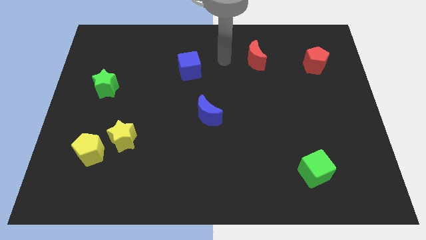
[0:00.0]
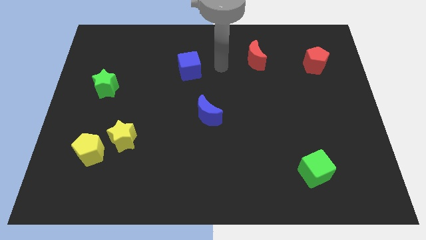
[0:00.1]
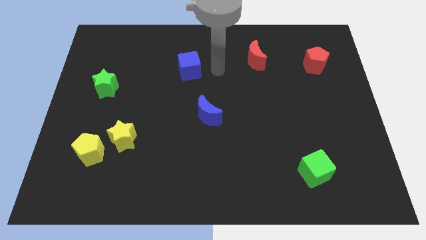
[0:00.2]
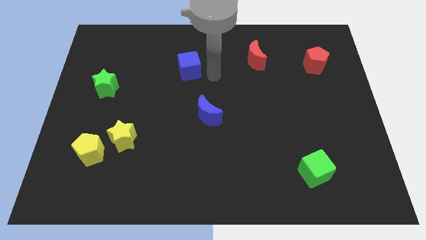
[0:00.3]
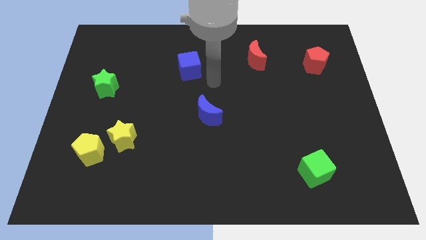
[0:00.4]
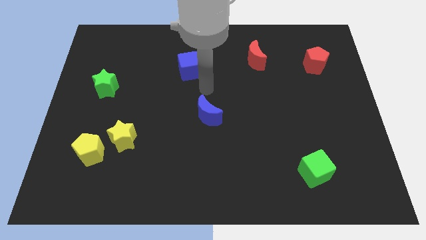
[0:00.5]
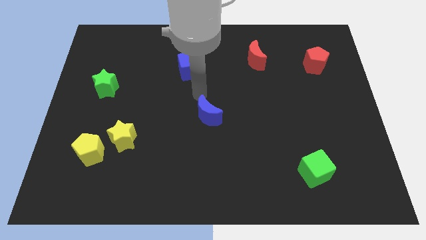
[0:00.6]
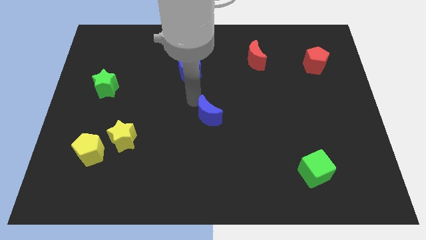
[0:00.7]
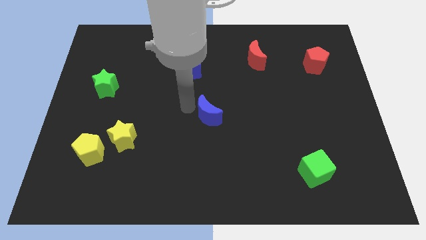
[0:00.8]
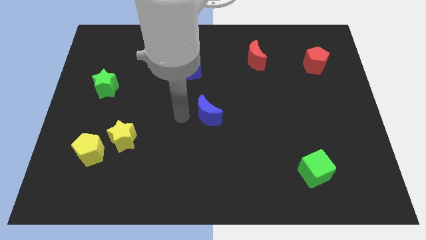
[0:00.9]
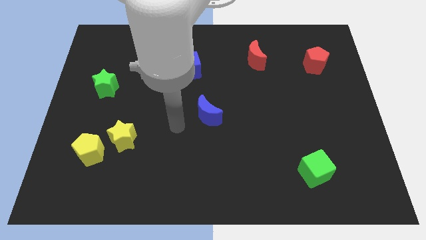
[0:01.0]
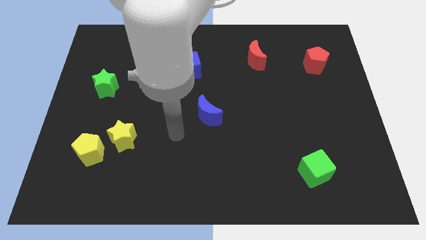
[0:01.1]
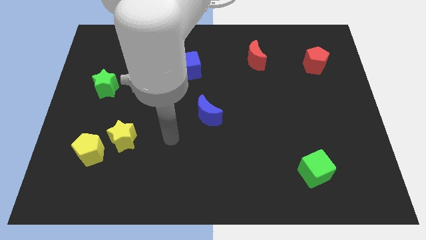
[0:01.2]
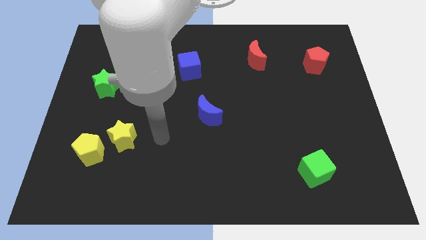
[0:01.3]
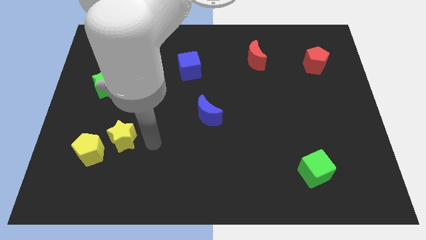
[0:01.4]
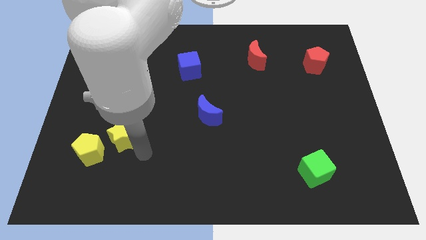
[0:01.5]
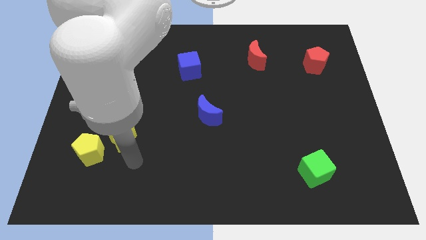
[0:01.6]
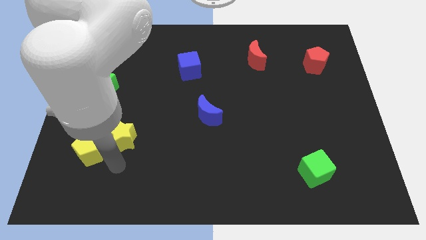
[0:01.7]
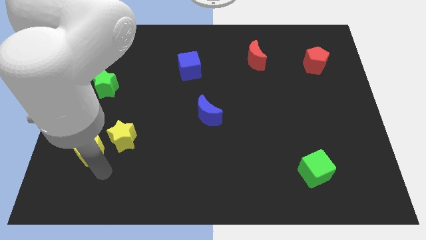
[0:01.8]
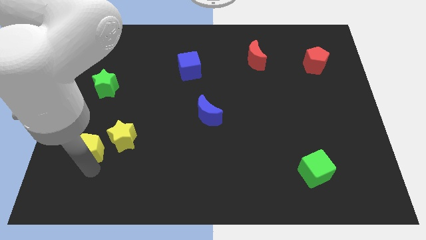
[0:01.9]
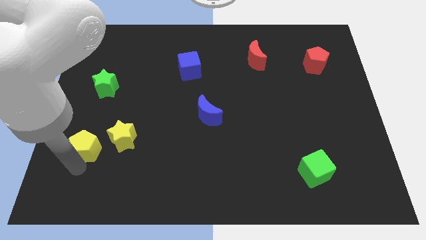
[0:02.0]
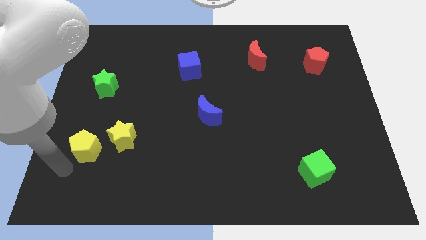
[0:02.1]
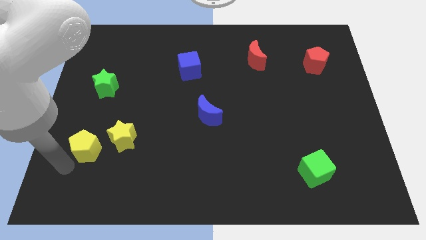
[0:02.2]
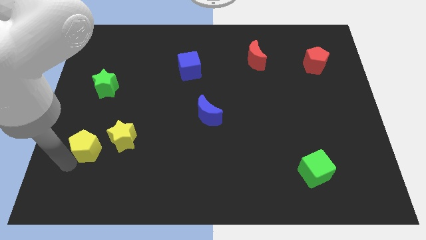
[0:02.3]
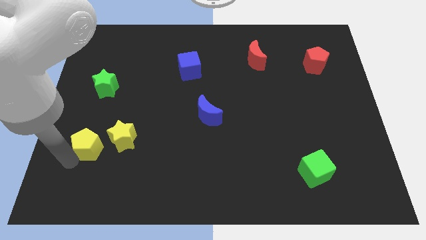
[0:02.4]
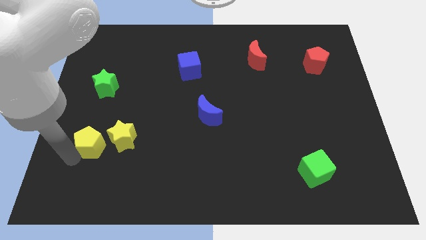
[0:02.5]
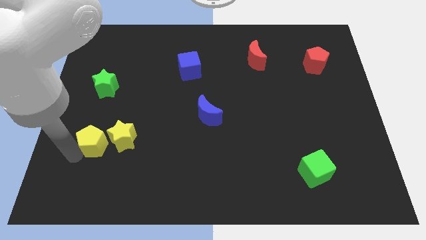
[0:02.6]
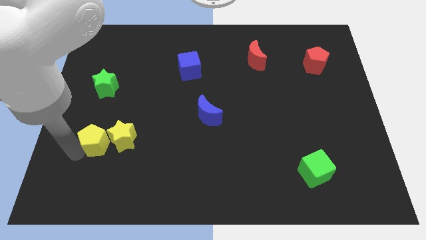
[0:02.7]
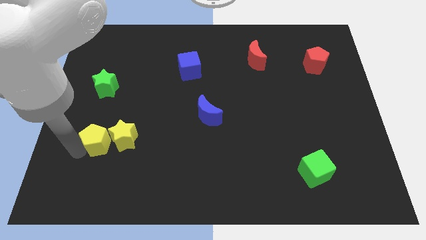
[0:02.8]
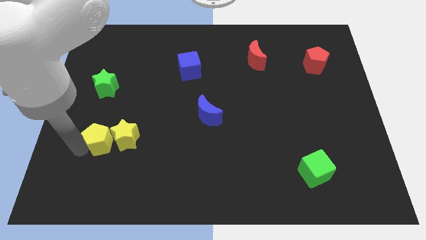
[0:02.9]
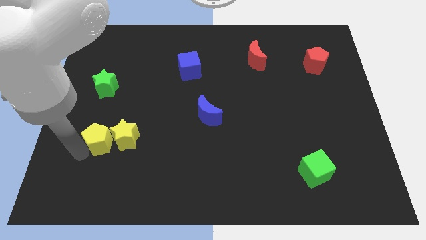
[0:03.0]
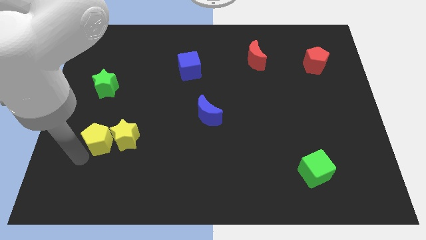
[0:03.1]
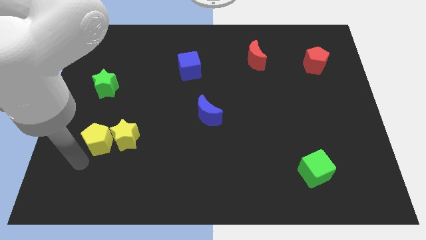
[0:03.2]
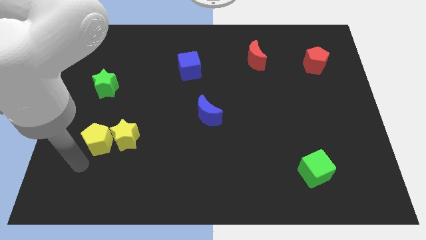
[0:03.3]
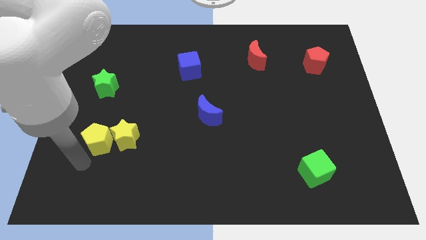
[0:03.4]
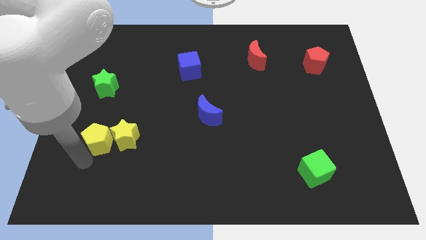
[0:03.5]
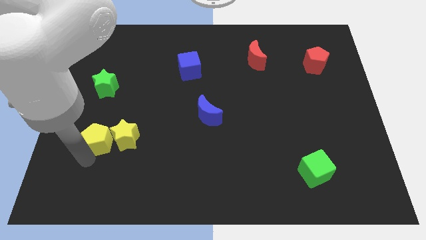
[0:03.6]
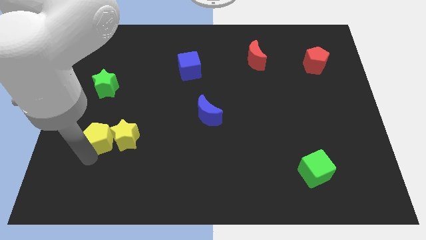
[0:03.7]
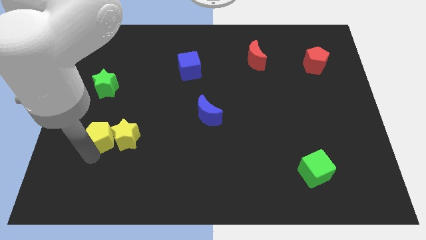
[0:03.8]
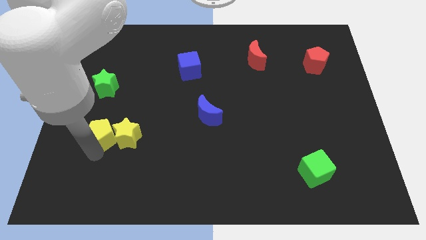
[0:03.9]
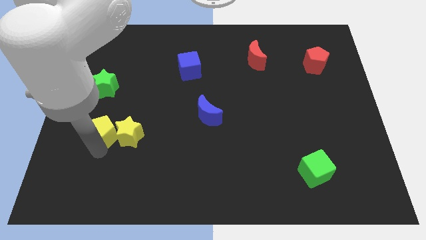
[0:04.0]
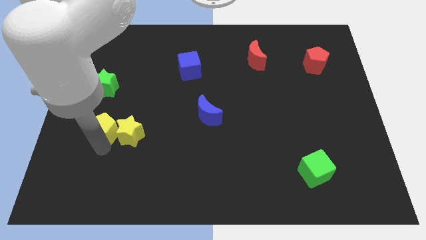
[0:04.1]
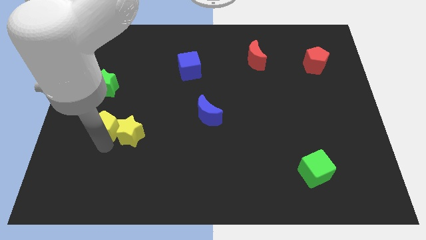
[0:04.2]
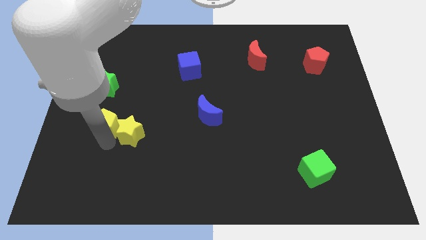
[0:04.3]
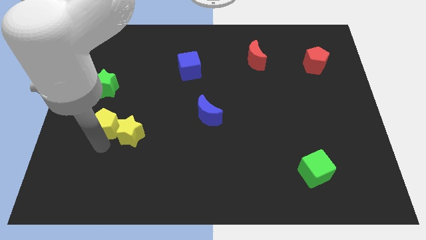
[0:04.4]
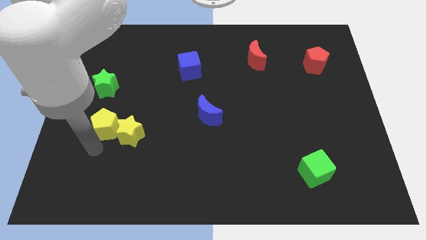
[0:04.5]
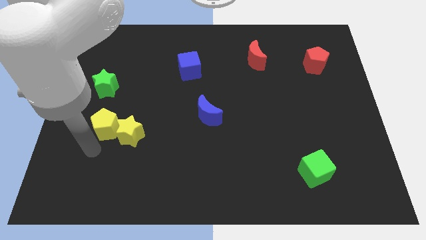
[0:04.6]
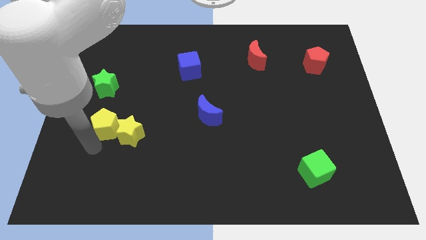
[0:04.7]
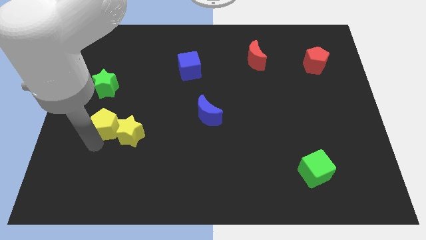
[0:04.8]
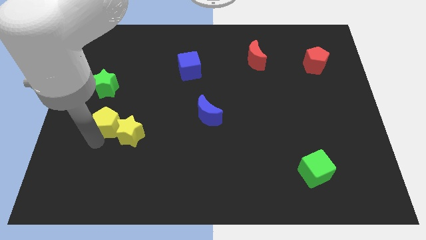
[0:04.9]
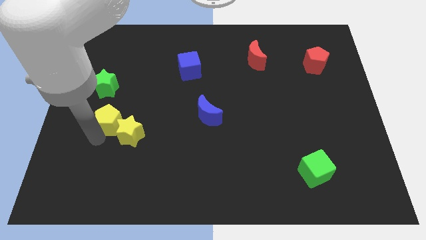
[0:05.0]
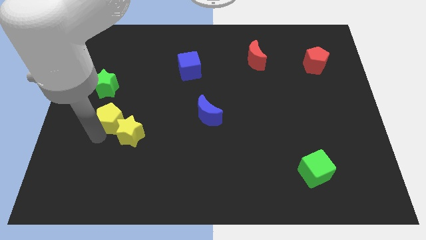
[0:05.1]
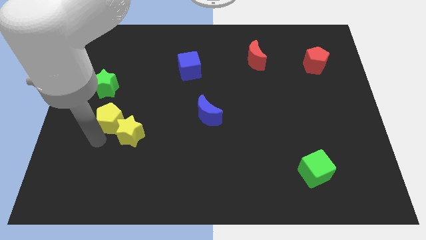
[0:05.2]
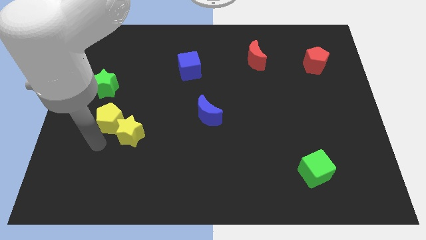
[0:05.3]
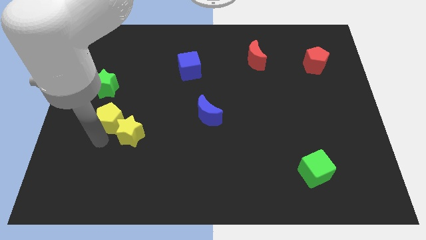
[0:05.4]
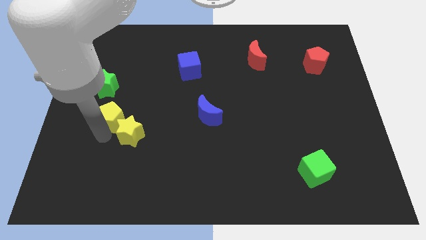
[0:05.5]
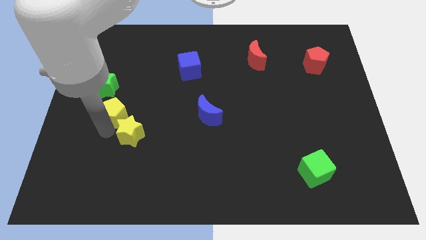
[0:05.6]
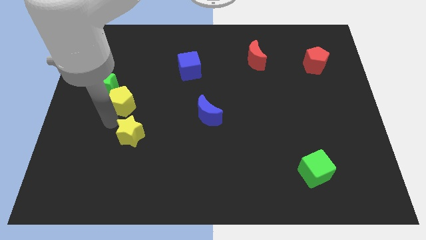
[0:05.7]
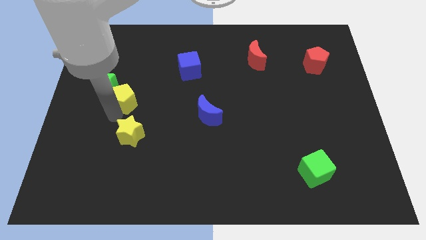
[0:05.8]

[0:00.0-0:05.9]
push the yellow pentagon to the right side of the green star

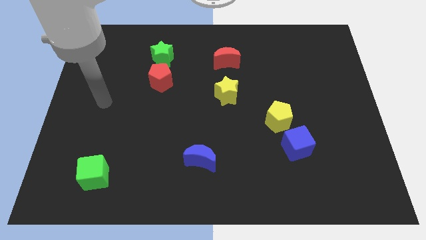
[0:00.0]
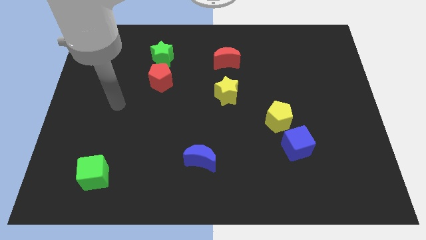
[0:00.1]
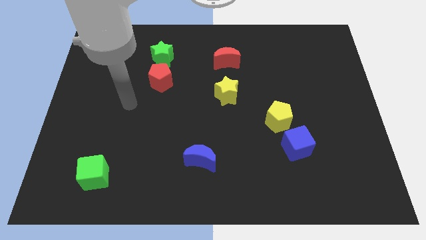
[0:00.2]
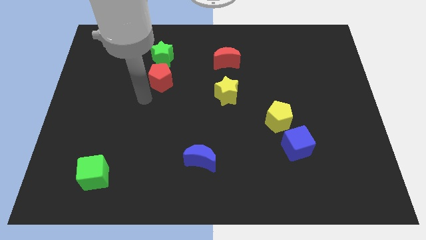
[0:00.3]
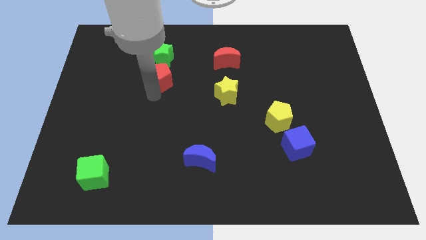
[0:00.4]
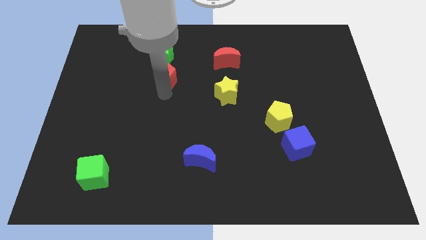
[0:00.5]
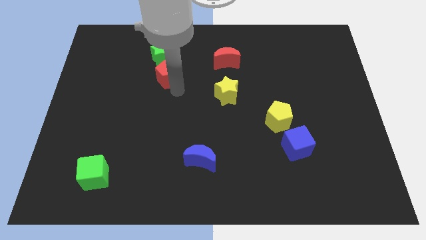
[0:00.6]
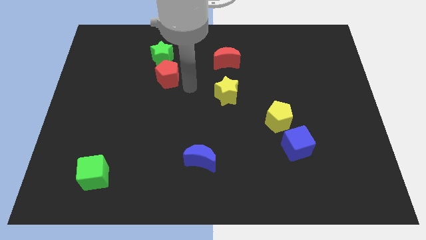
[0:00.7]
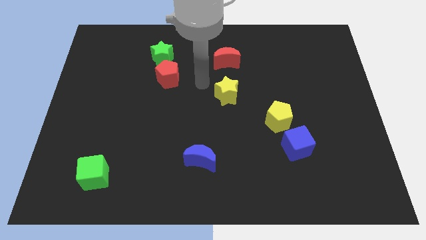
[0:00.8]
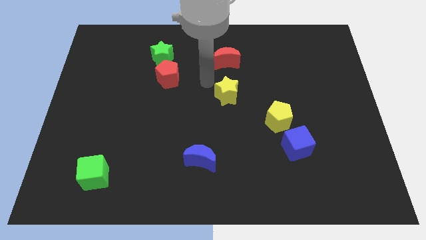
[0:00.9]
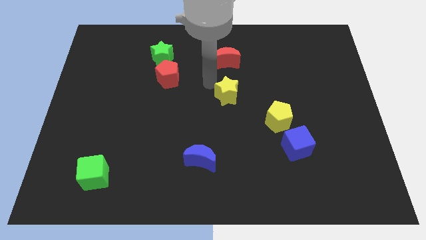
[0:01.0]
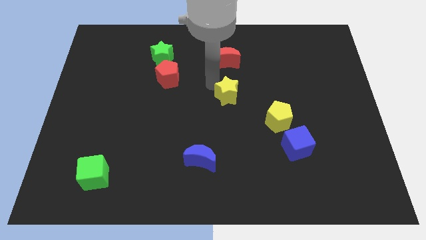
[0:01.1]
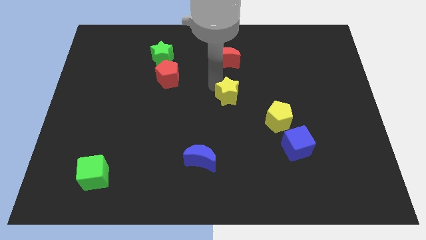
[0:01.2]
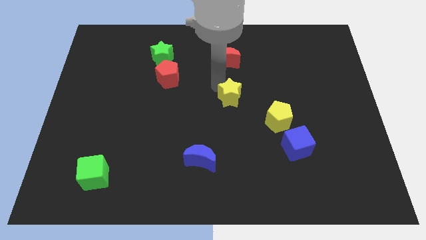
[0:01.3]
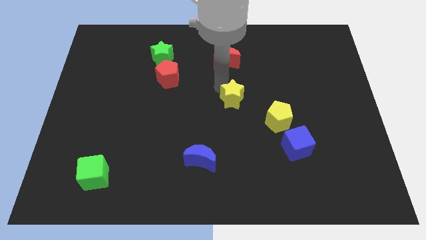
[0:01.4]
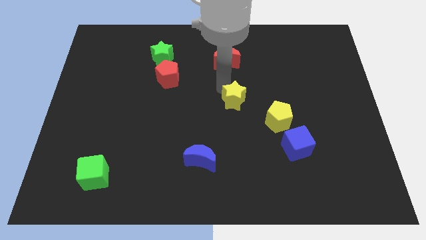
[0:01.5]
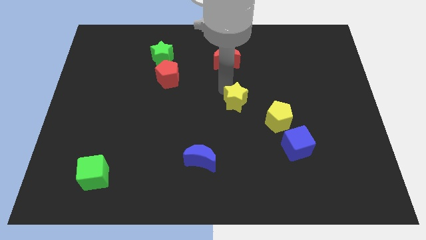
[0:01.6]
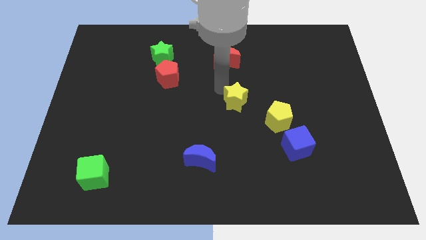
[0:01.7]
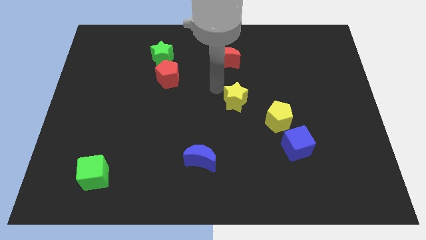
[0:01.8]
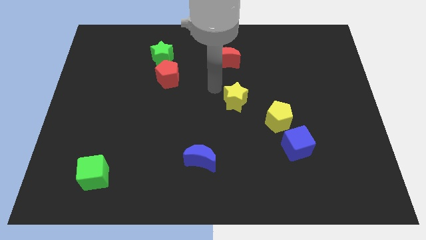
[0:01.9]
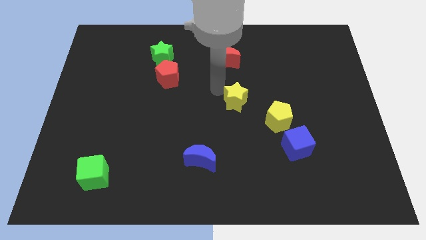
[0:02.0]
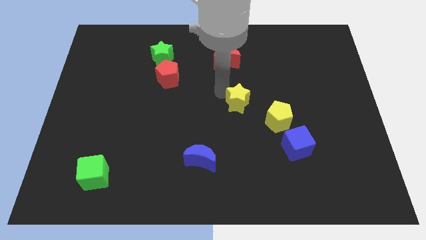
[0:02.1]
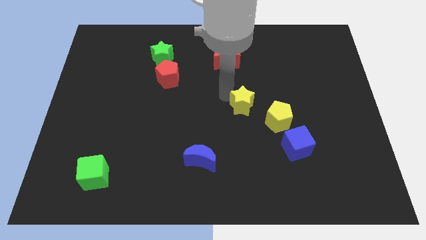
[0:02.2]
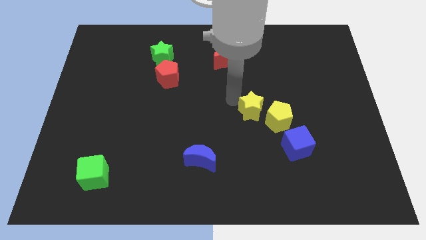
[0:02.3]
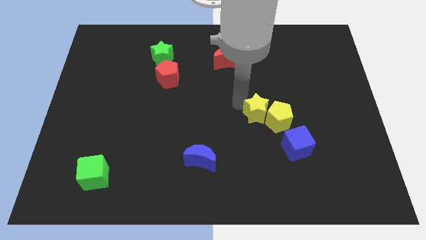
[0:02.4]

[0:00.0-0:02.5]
move the yellow star to the top left side of the blue cube
